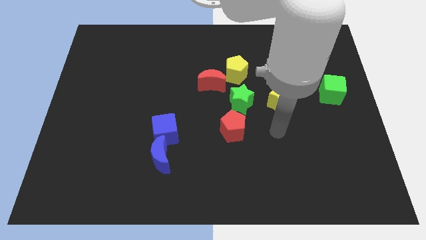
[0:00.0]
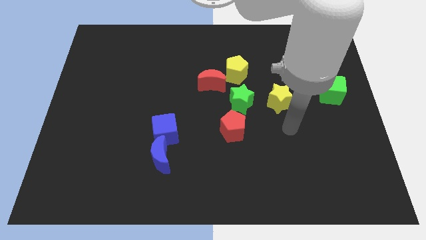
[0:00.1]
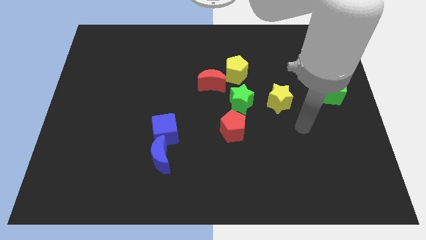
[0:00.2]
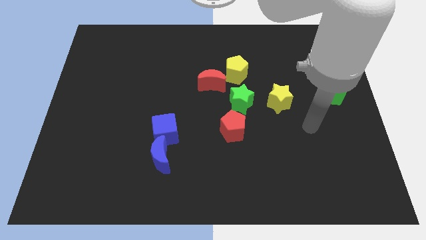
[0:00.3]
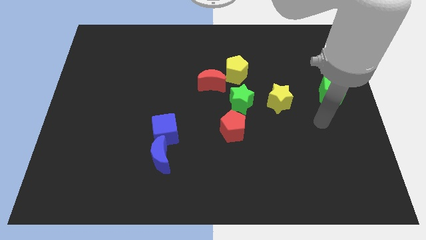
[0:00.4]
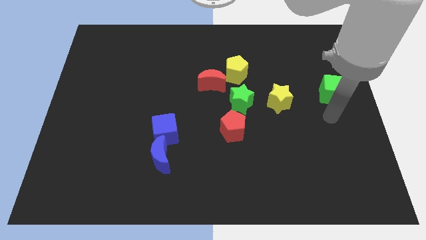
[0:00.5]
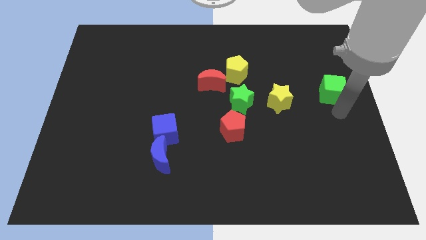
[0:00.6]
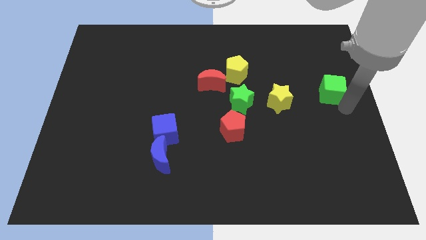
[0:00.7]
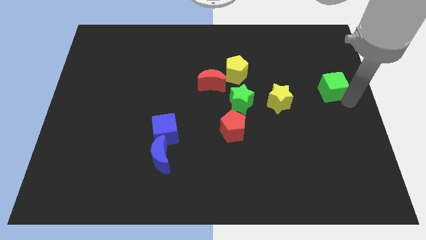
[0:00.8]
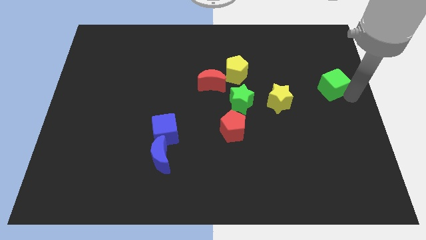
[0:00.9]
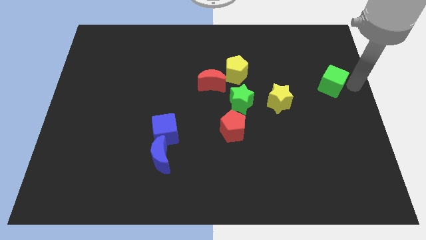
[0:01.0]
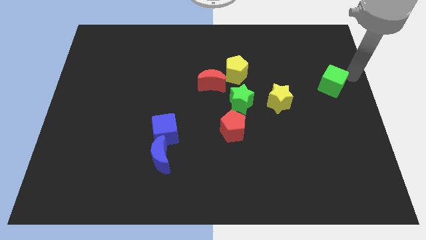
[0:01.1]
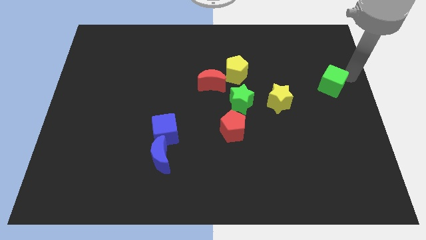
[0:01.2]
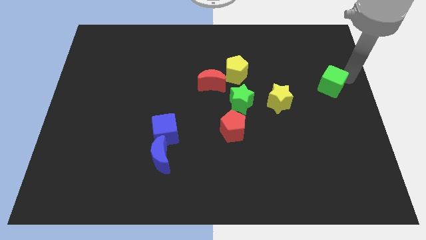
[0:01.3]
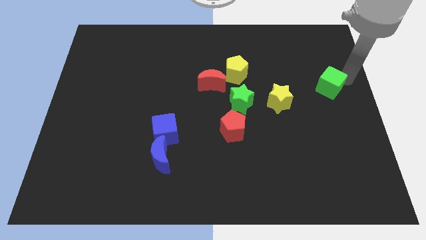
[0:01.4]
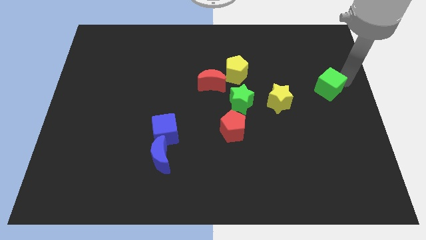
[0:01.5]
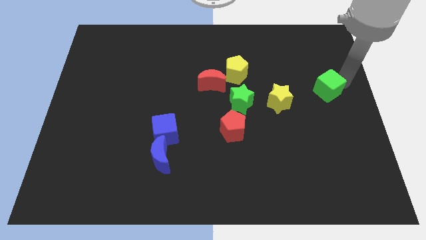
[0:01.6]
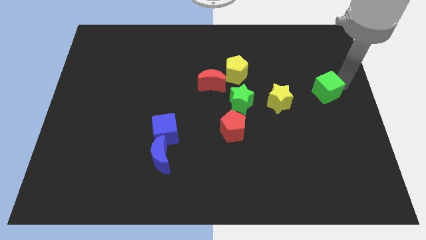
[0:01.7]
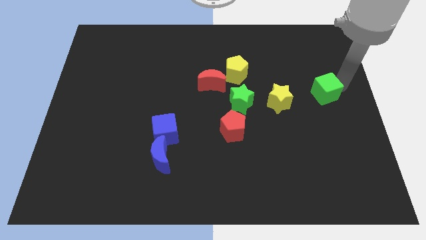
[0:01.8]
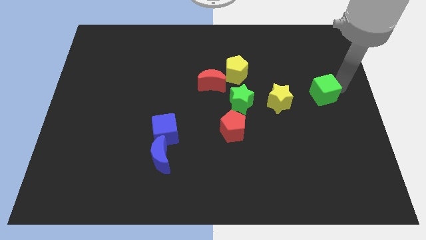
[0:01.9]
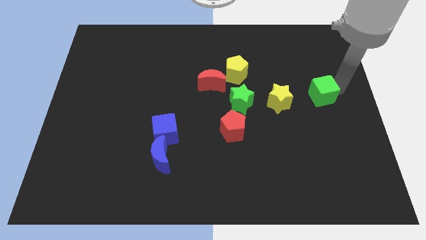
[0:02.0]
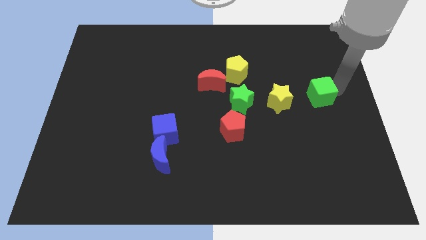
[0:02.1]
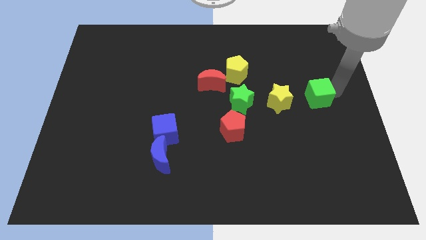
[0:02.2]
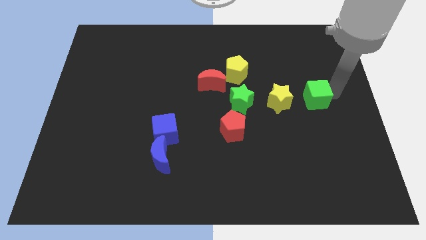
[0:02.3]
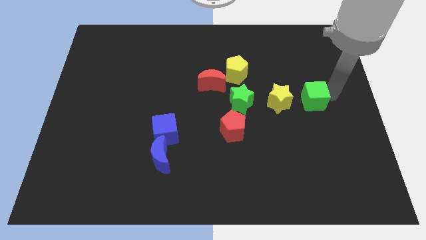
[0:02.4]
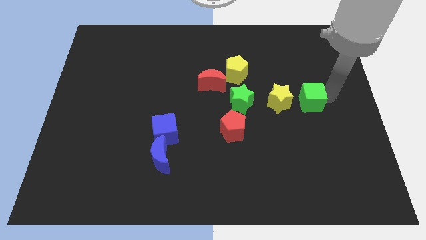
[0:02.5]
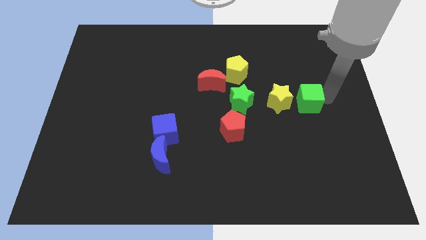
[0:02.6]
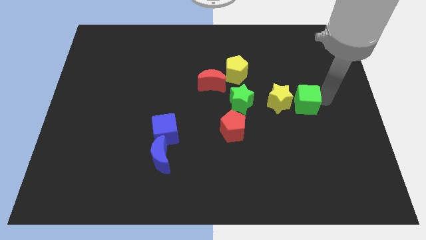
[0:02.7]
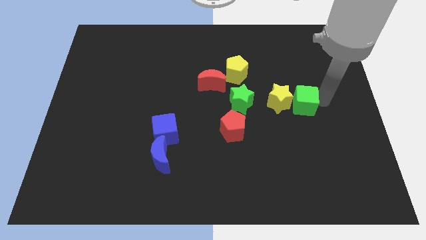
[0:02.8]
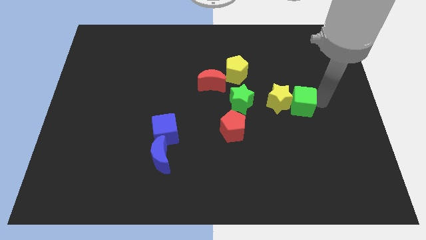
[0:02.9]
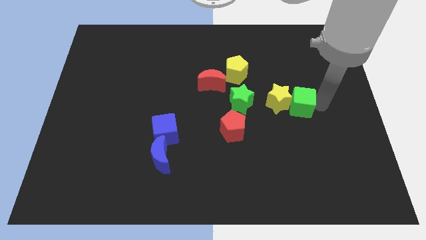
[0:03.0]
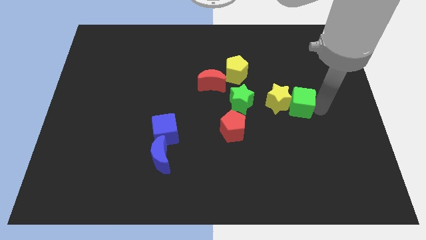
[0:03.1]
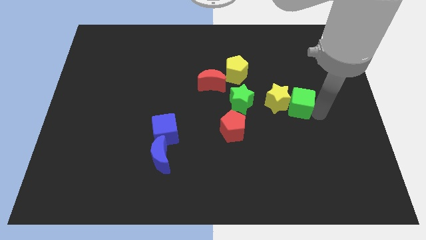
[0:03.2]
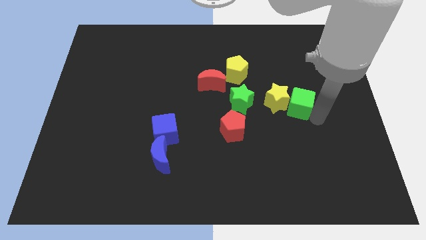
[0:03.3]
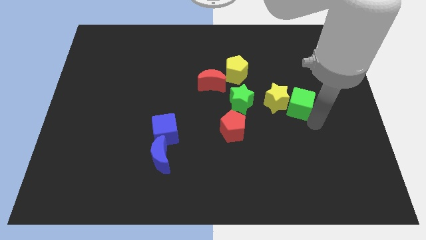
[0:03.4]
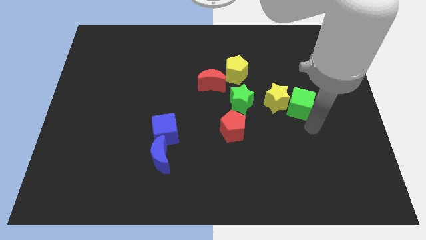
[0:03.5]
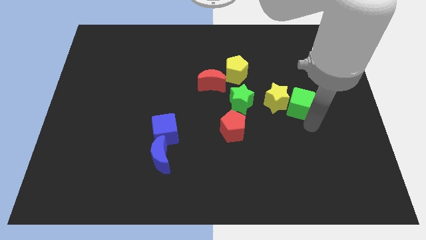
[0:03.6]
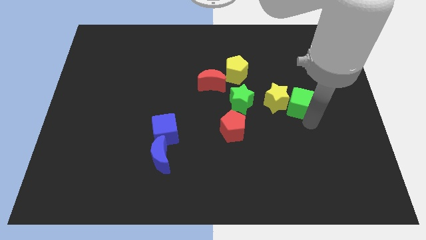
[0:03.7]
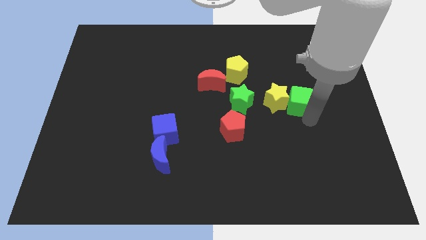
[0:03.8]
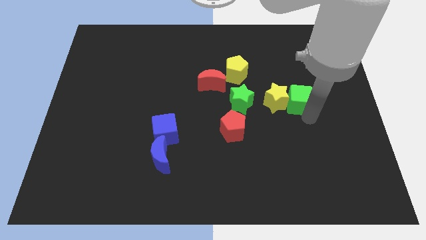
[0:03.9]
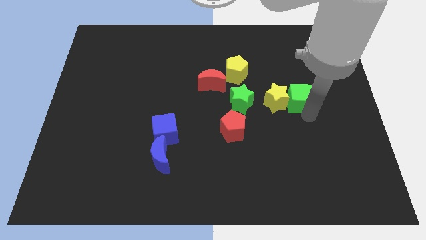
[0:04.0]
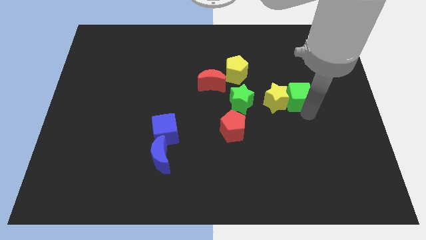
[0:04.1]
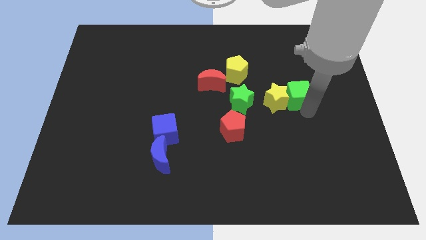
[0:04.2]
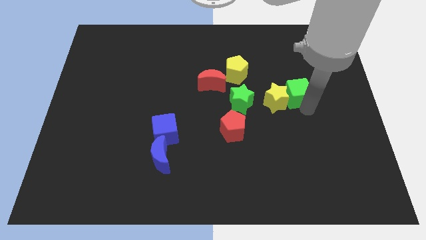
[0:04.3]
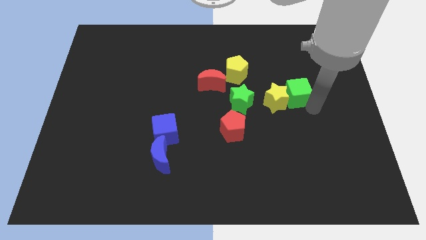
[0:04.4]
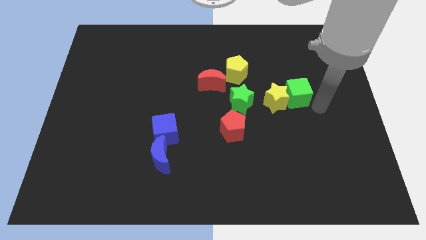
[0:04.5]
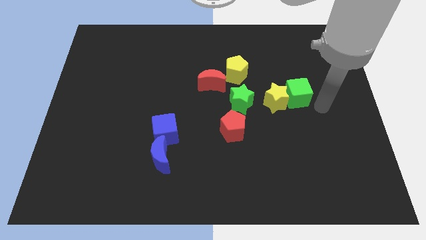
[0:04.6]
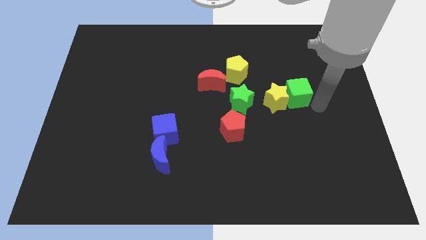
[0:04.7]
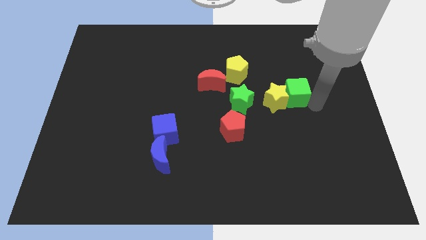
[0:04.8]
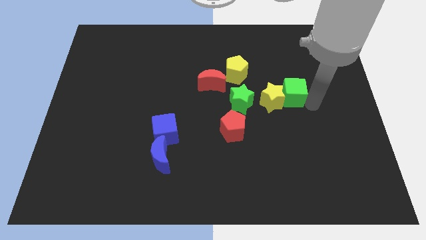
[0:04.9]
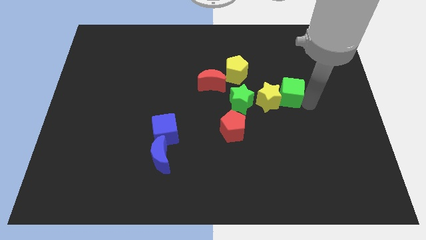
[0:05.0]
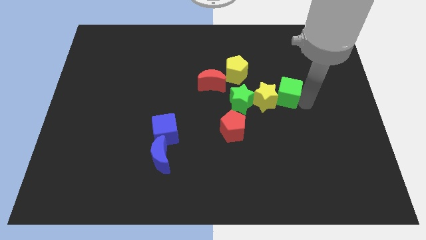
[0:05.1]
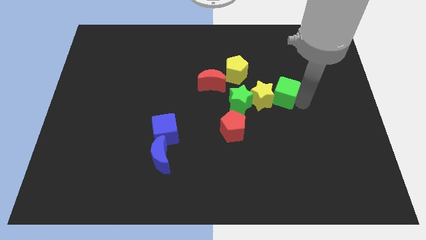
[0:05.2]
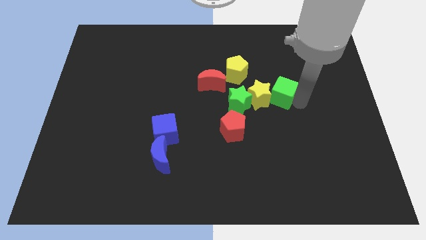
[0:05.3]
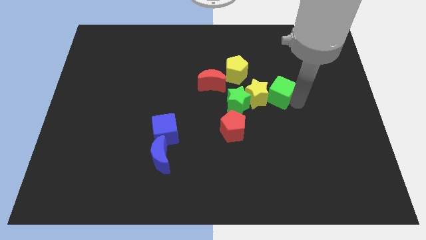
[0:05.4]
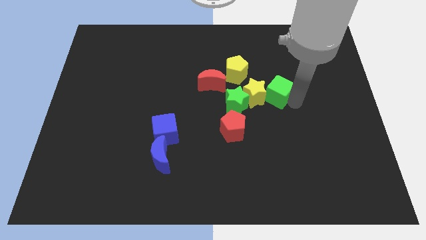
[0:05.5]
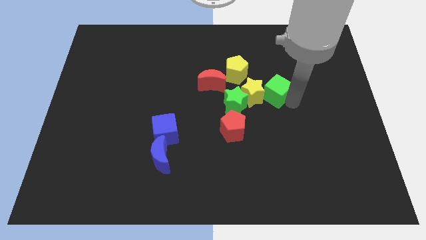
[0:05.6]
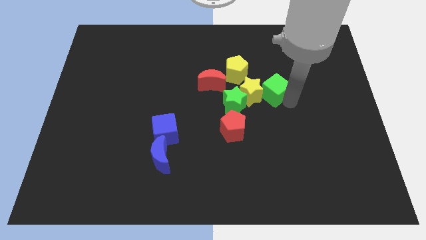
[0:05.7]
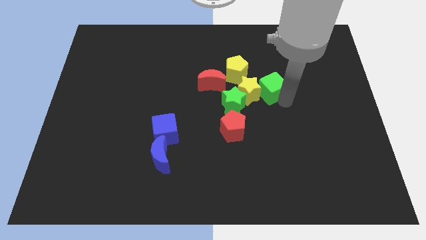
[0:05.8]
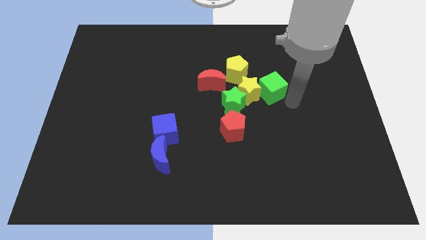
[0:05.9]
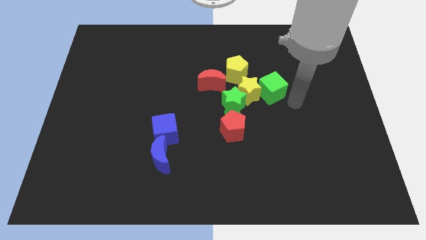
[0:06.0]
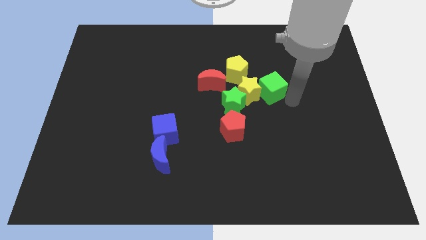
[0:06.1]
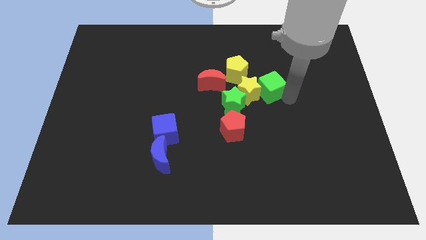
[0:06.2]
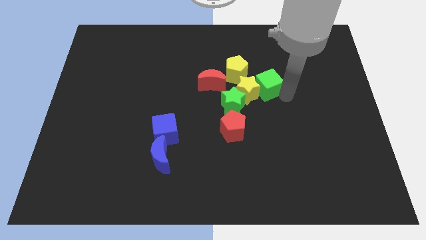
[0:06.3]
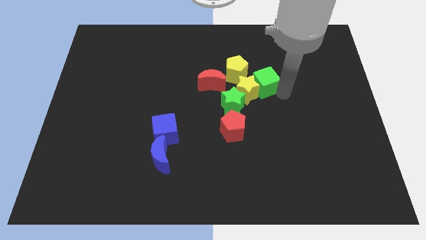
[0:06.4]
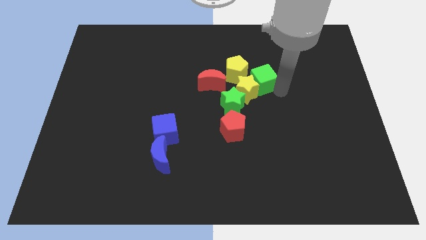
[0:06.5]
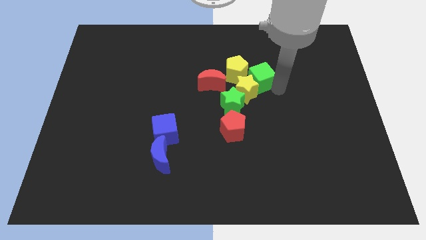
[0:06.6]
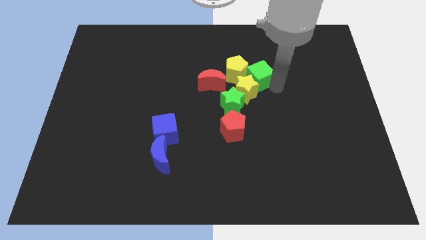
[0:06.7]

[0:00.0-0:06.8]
push the green cube close to the yellow pentagon
